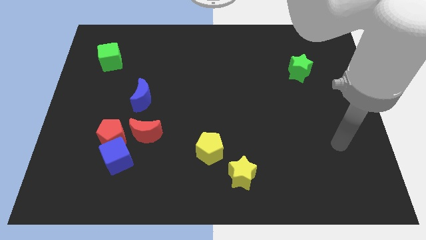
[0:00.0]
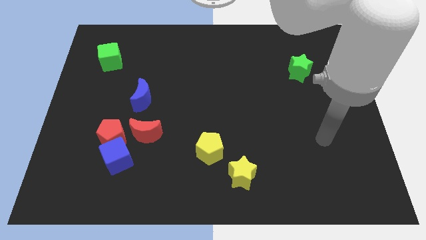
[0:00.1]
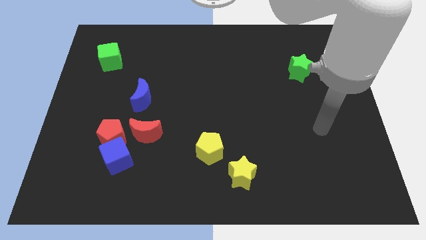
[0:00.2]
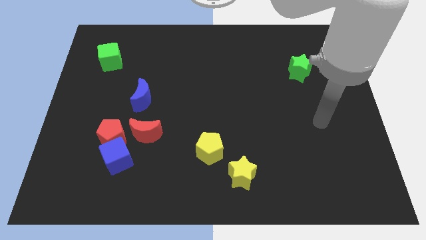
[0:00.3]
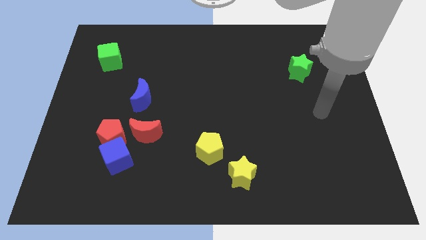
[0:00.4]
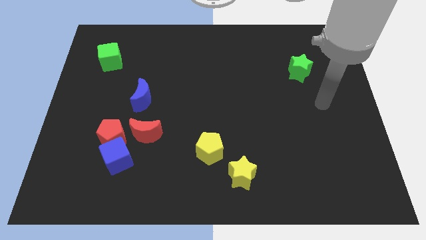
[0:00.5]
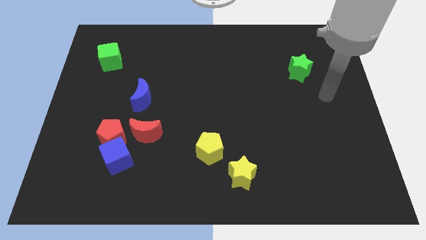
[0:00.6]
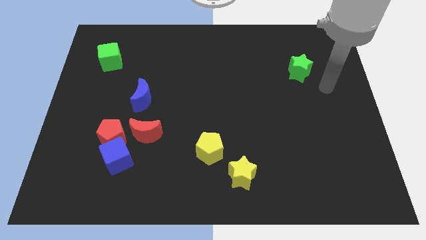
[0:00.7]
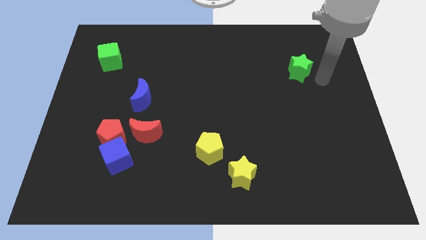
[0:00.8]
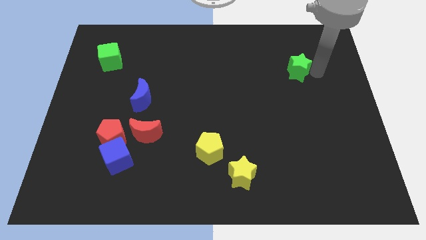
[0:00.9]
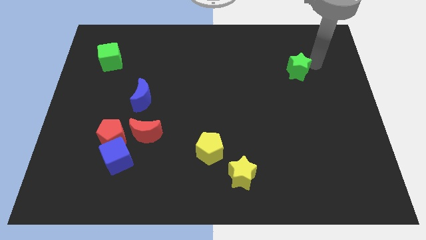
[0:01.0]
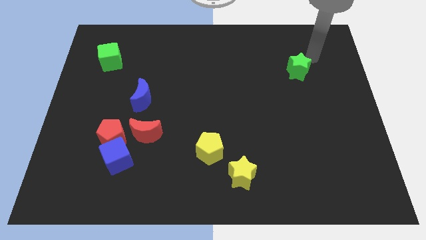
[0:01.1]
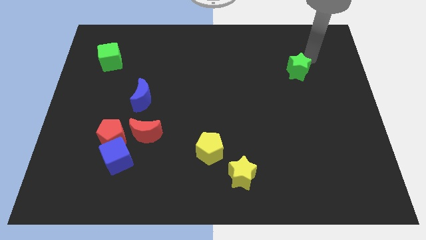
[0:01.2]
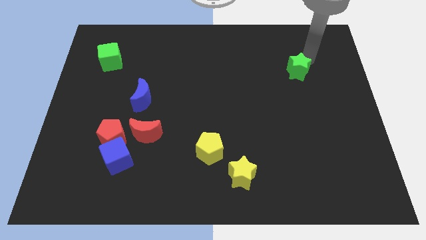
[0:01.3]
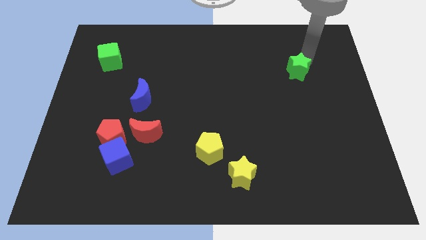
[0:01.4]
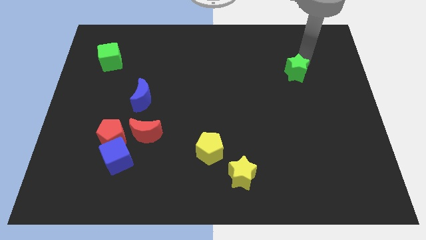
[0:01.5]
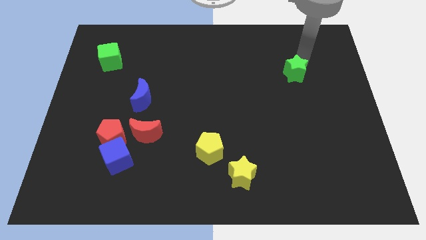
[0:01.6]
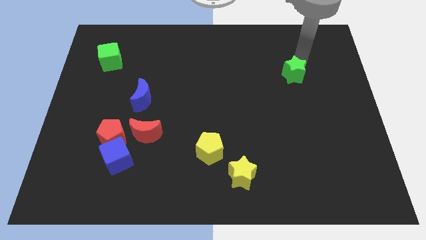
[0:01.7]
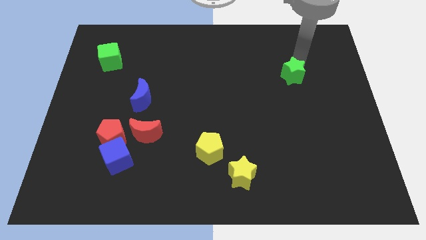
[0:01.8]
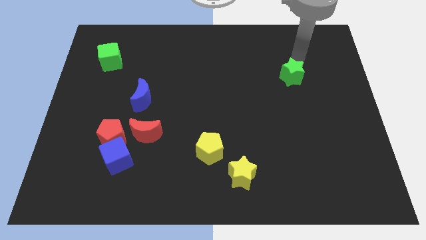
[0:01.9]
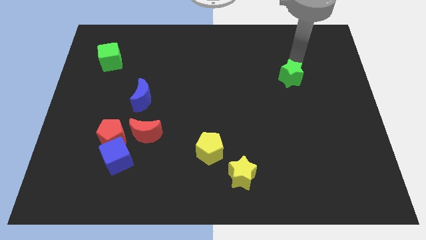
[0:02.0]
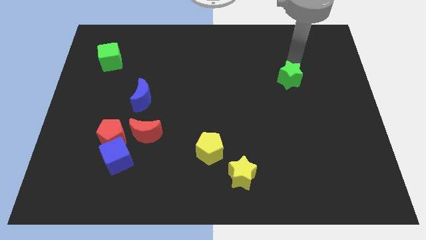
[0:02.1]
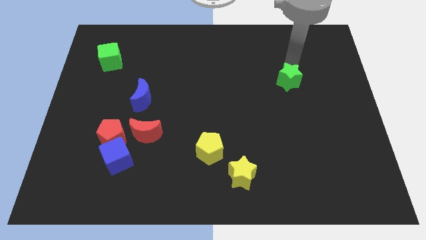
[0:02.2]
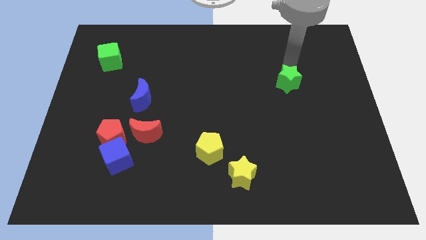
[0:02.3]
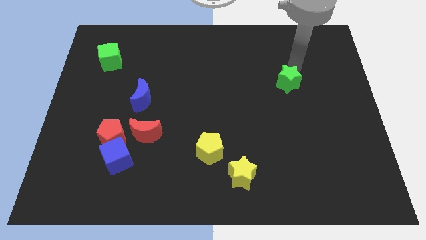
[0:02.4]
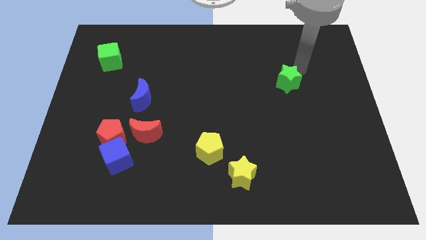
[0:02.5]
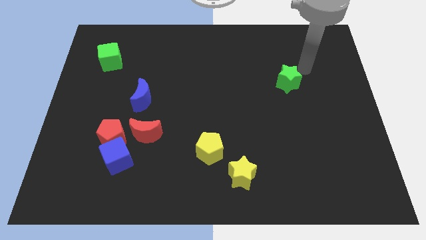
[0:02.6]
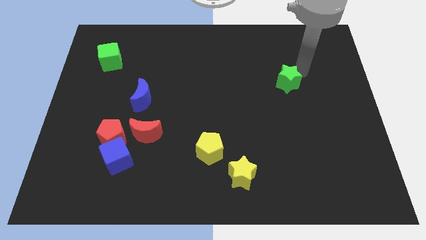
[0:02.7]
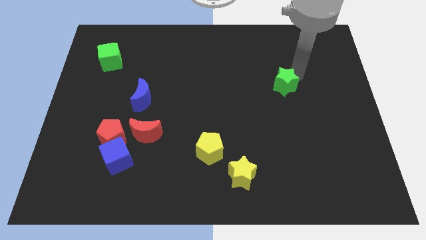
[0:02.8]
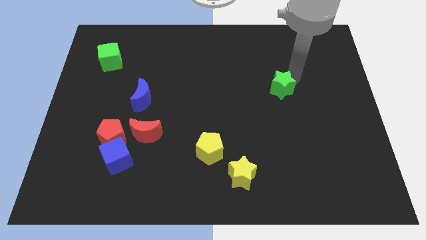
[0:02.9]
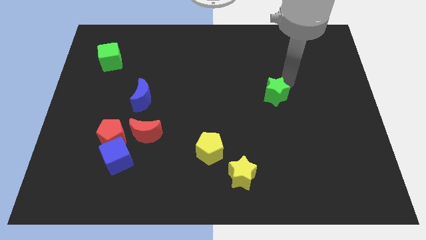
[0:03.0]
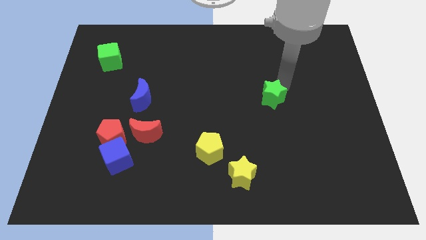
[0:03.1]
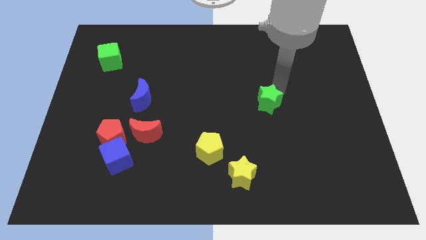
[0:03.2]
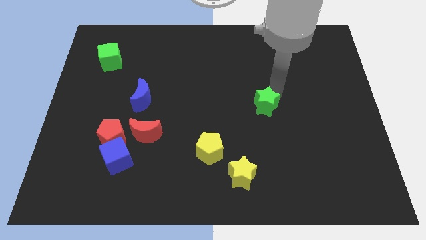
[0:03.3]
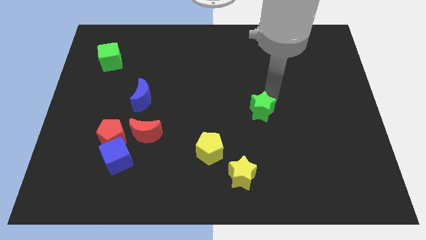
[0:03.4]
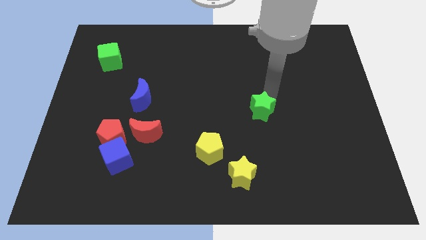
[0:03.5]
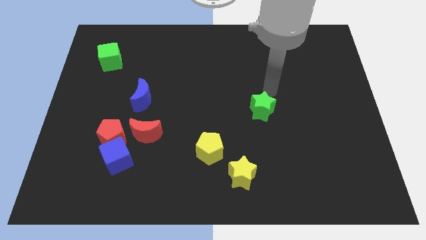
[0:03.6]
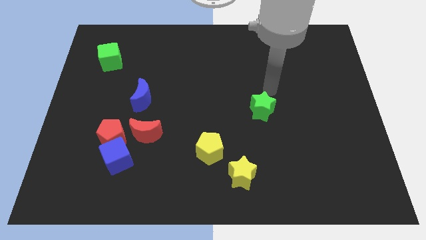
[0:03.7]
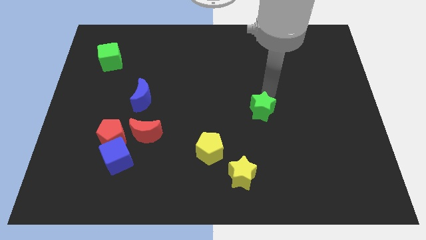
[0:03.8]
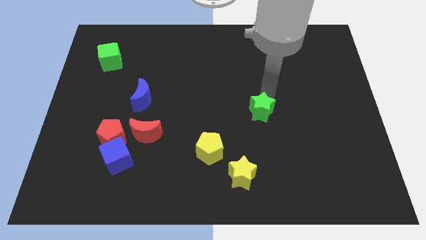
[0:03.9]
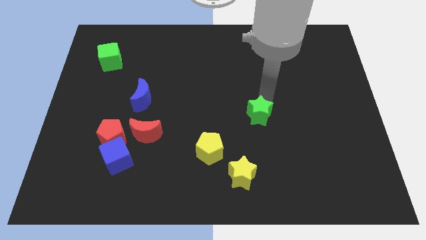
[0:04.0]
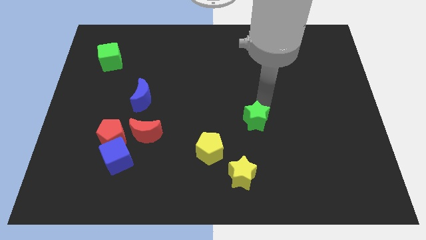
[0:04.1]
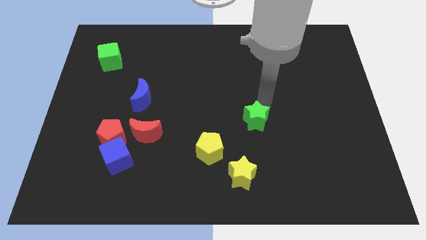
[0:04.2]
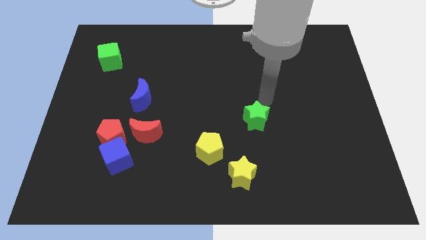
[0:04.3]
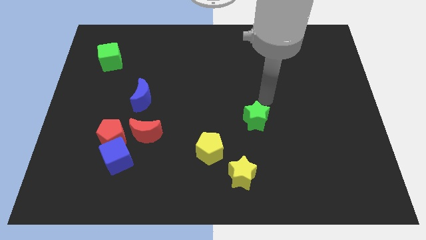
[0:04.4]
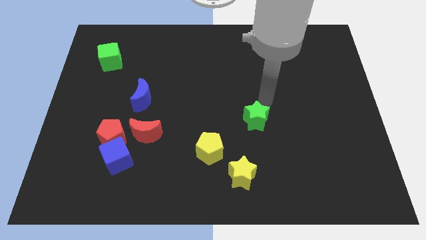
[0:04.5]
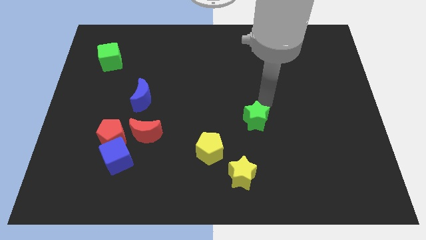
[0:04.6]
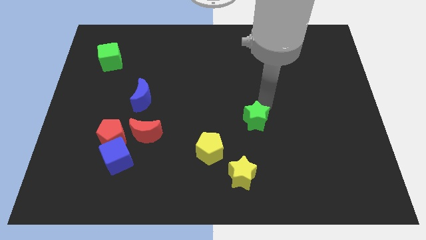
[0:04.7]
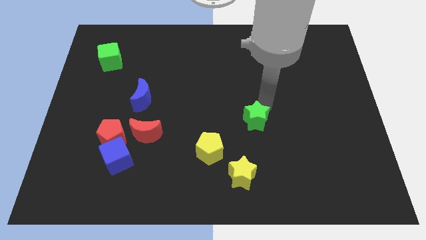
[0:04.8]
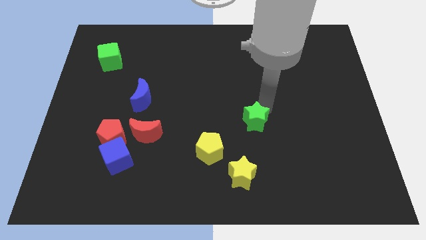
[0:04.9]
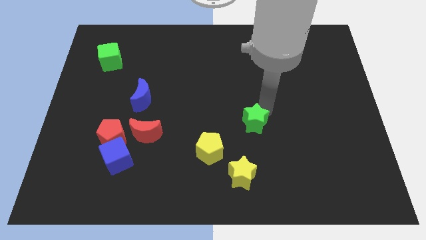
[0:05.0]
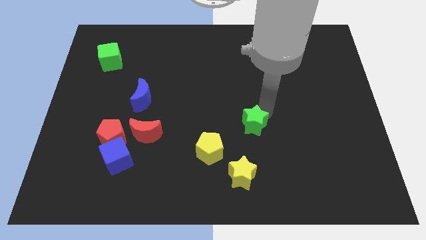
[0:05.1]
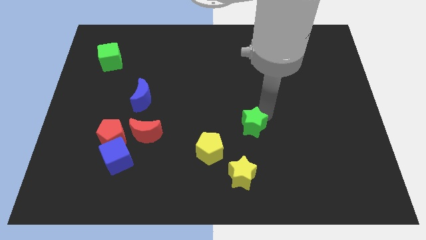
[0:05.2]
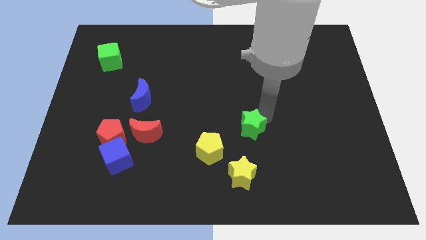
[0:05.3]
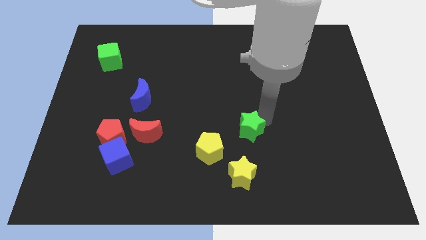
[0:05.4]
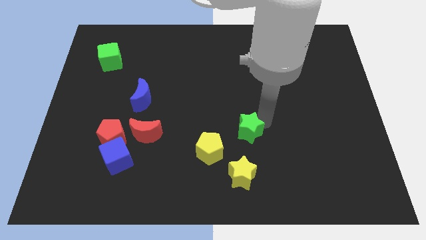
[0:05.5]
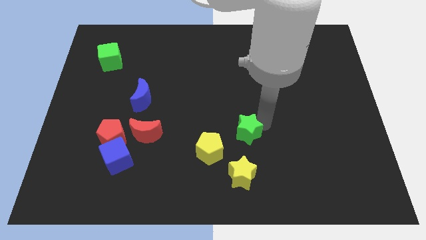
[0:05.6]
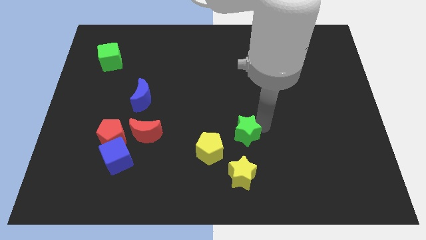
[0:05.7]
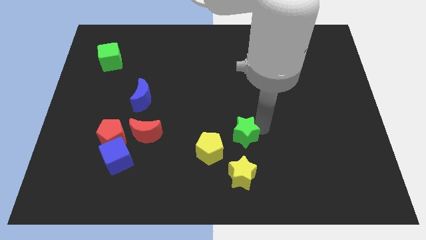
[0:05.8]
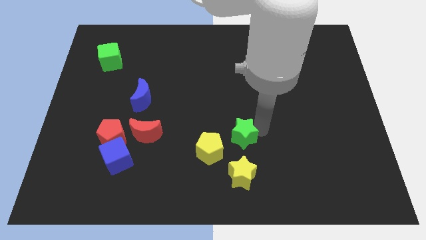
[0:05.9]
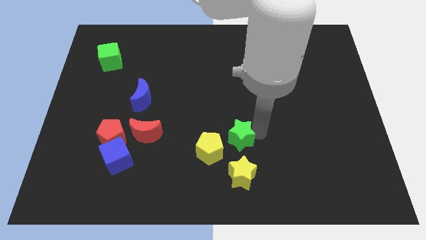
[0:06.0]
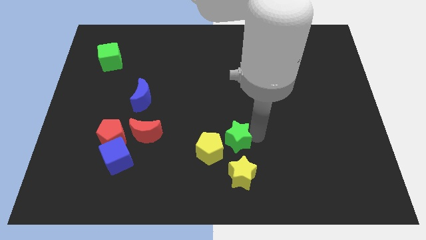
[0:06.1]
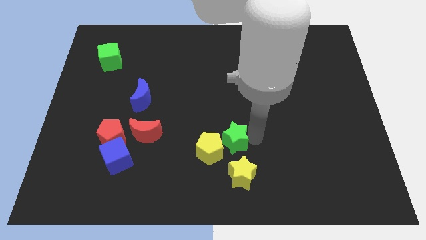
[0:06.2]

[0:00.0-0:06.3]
put the green star to the yellow pentagon
